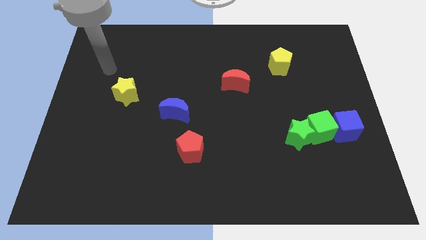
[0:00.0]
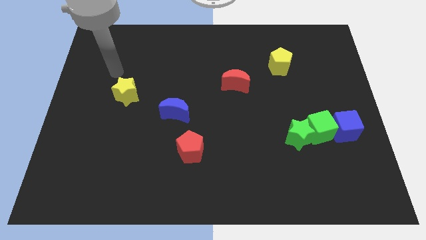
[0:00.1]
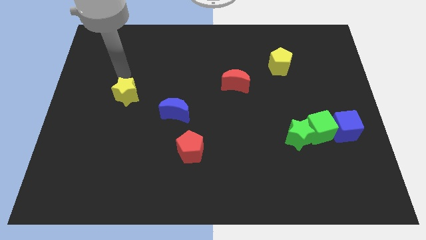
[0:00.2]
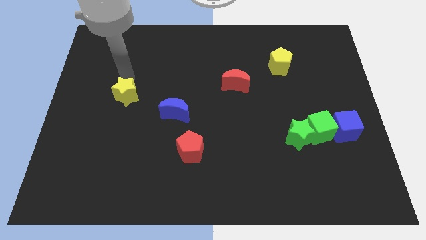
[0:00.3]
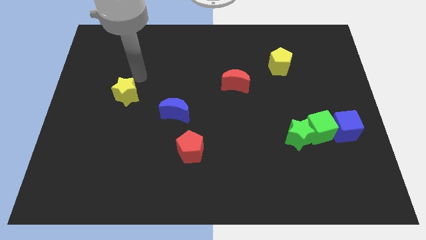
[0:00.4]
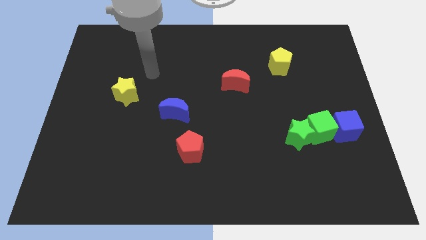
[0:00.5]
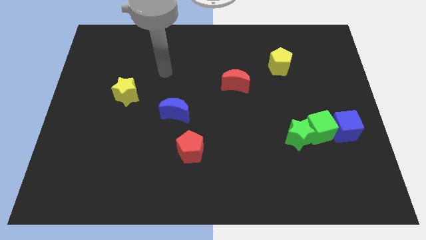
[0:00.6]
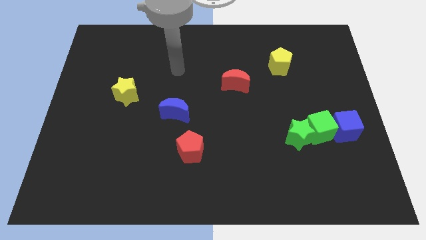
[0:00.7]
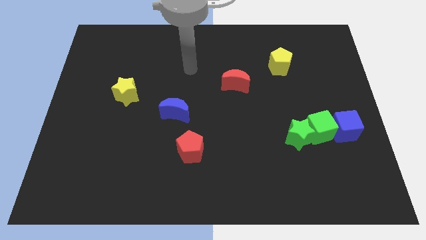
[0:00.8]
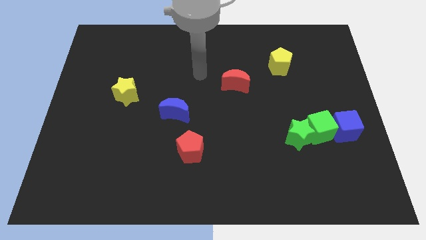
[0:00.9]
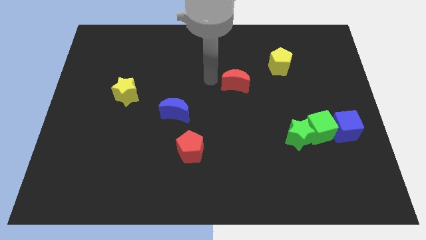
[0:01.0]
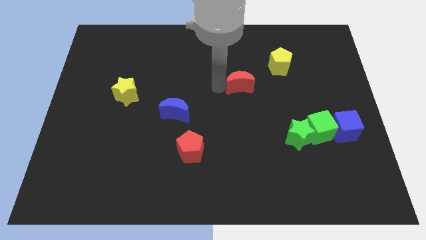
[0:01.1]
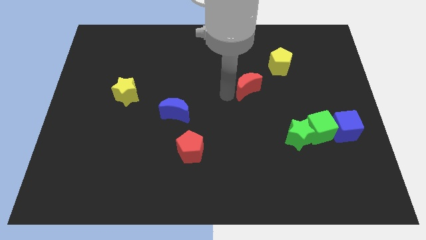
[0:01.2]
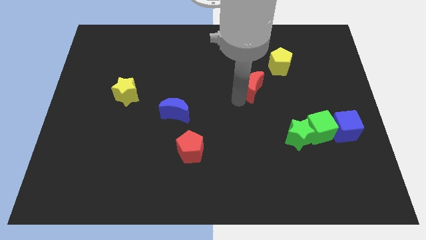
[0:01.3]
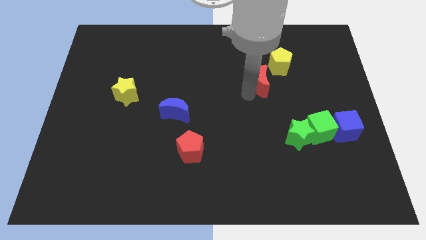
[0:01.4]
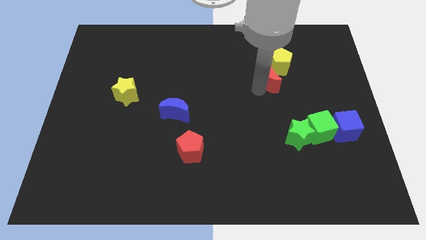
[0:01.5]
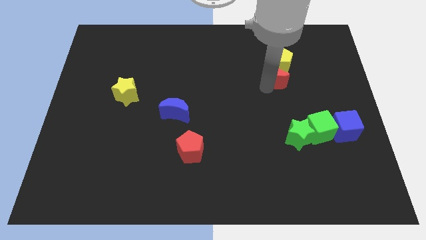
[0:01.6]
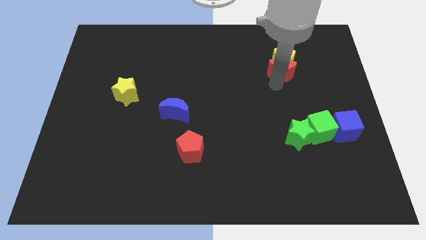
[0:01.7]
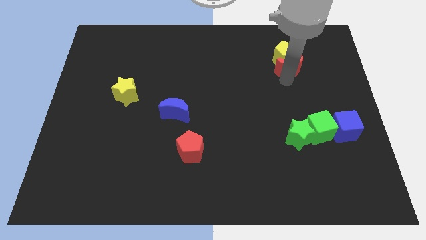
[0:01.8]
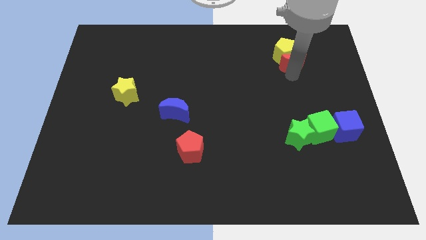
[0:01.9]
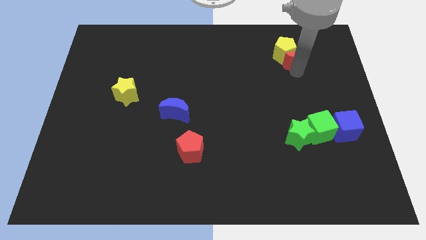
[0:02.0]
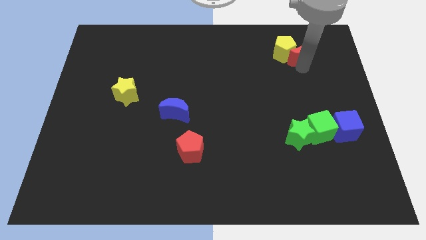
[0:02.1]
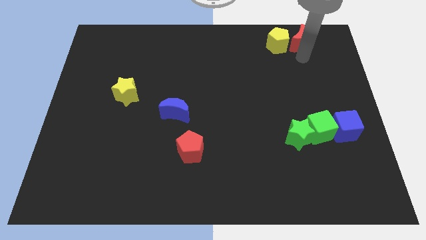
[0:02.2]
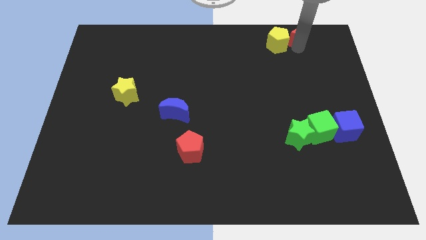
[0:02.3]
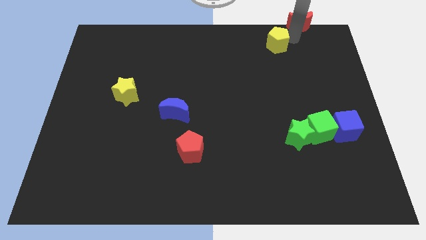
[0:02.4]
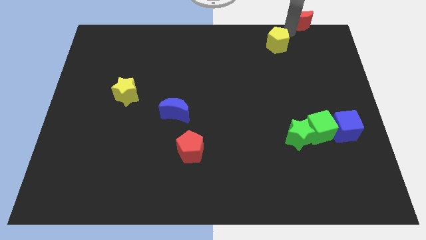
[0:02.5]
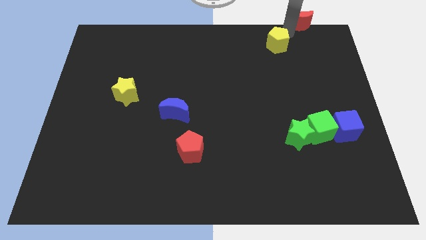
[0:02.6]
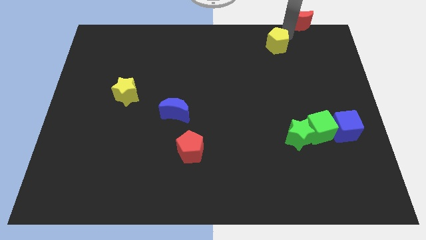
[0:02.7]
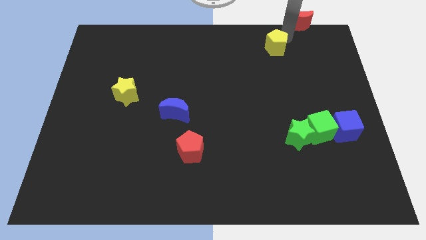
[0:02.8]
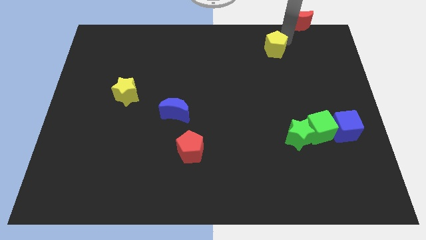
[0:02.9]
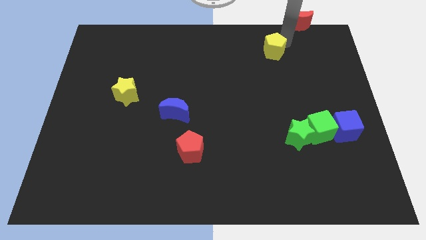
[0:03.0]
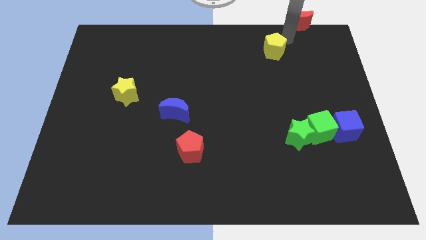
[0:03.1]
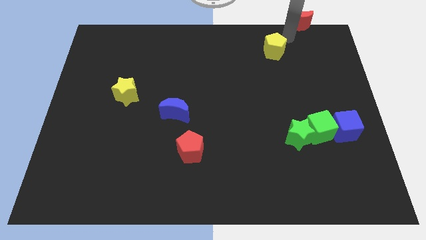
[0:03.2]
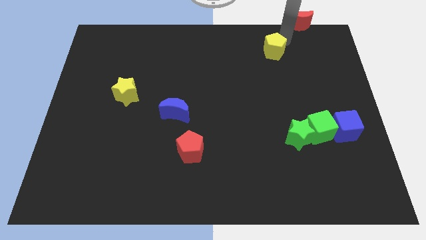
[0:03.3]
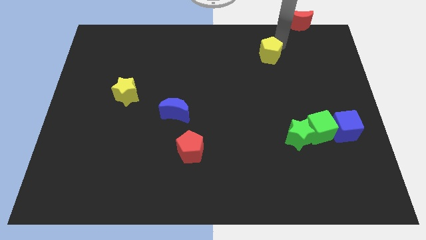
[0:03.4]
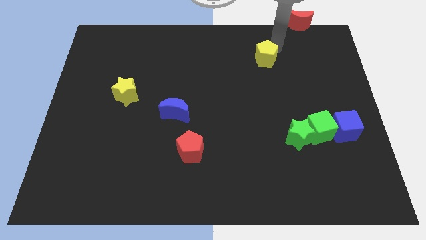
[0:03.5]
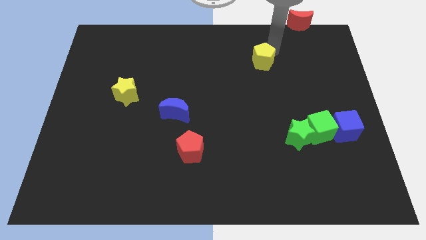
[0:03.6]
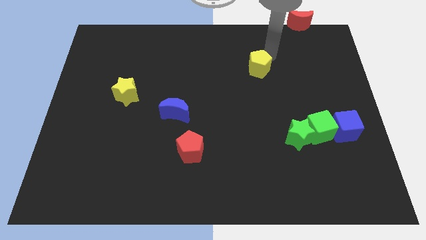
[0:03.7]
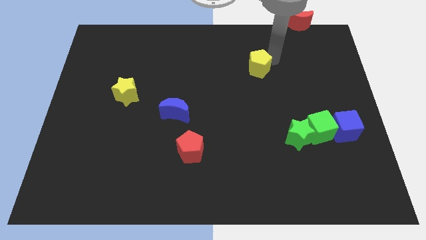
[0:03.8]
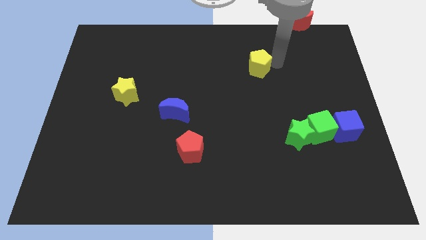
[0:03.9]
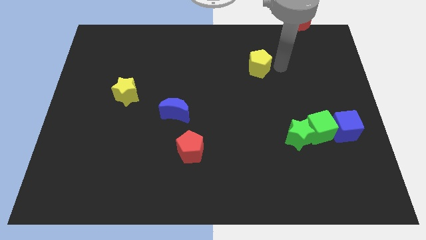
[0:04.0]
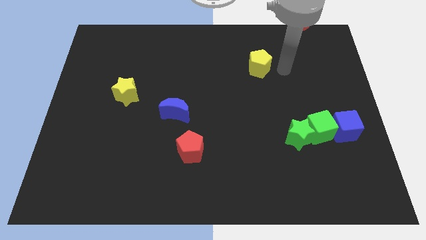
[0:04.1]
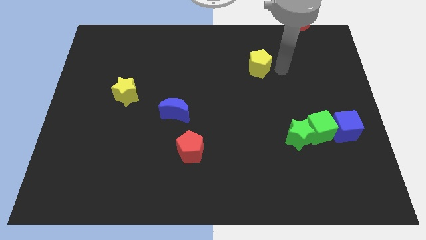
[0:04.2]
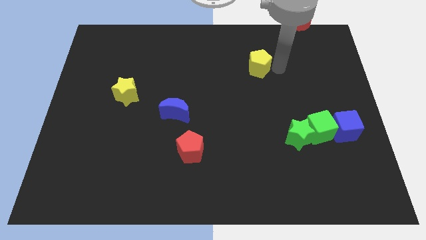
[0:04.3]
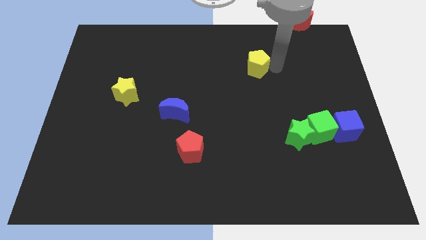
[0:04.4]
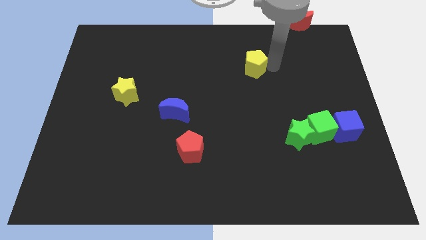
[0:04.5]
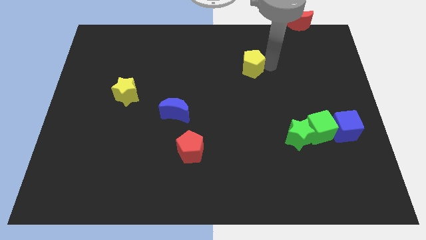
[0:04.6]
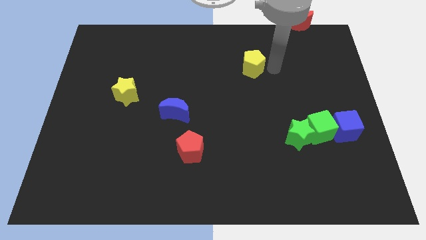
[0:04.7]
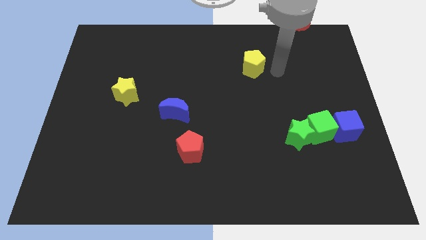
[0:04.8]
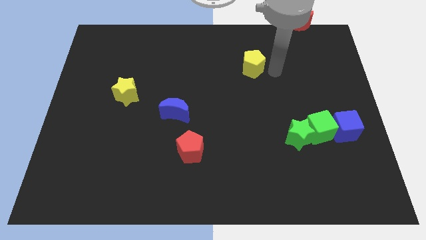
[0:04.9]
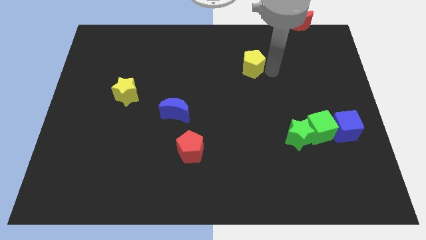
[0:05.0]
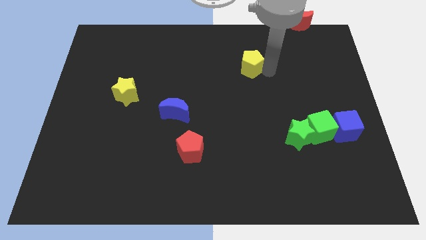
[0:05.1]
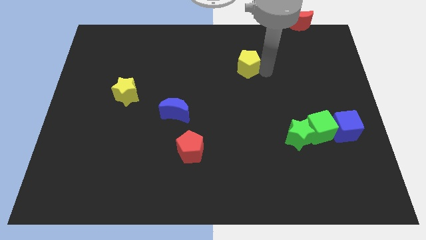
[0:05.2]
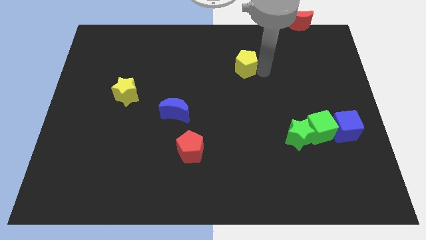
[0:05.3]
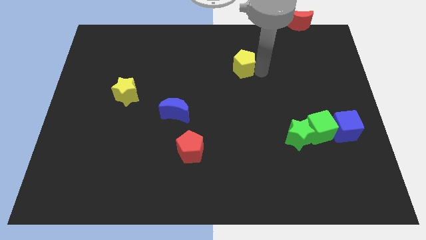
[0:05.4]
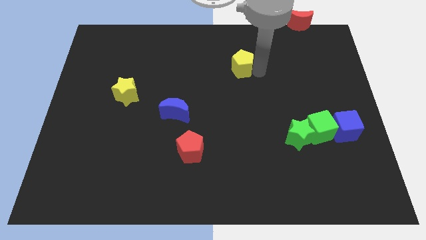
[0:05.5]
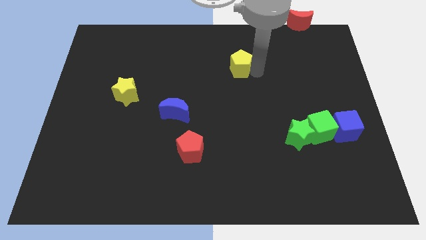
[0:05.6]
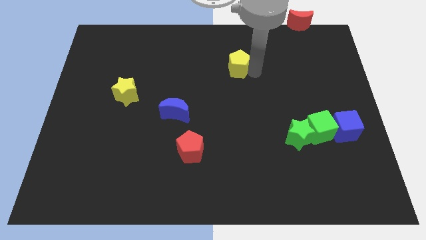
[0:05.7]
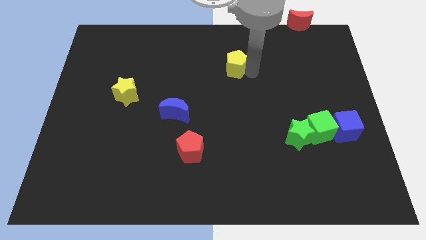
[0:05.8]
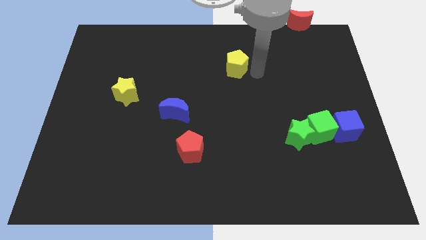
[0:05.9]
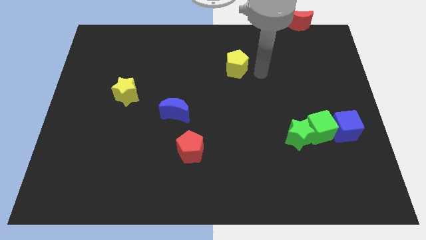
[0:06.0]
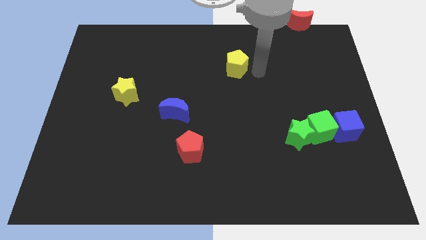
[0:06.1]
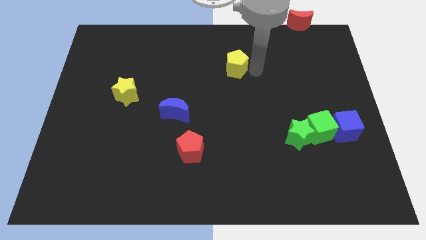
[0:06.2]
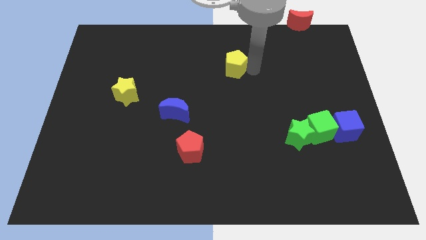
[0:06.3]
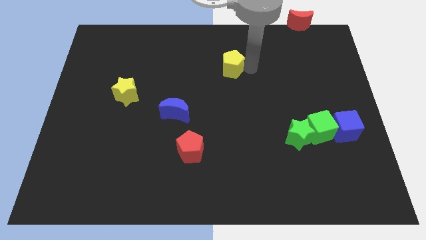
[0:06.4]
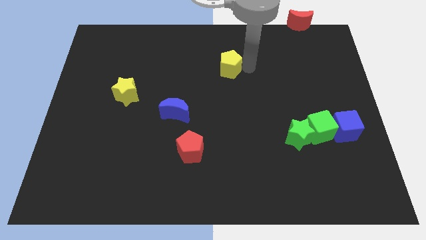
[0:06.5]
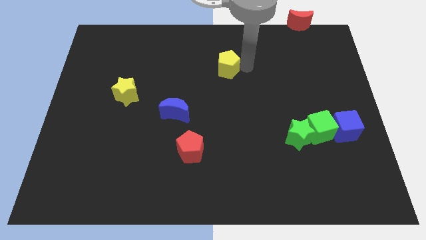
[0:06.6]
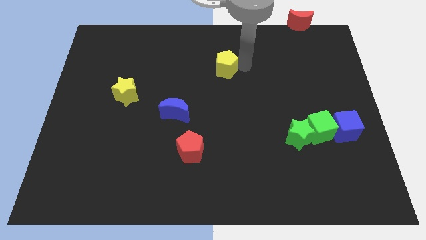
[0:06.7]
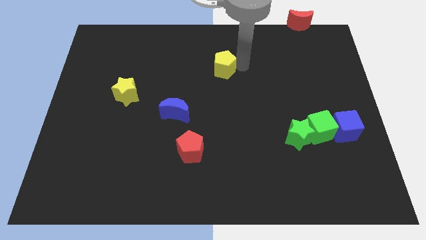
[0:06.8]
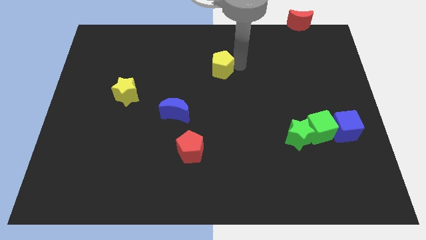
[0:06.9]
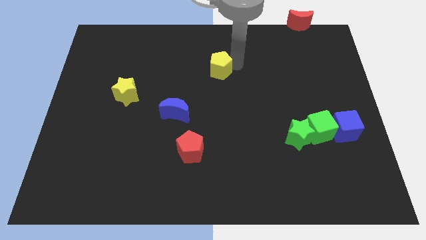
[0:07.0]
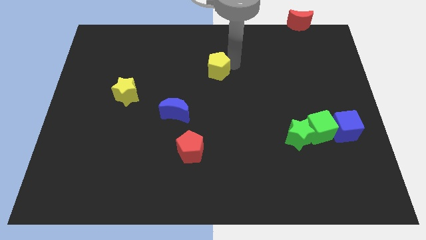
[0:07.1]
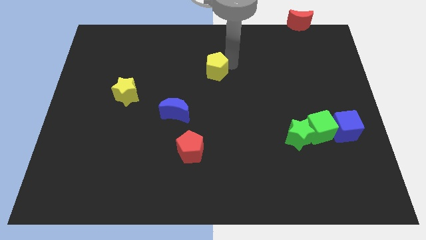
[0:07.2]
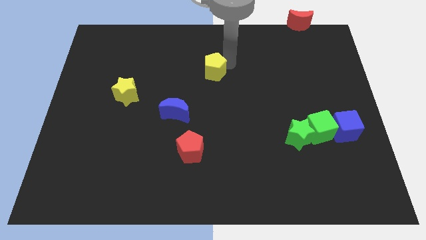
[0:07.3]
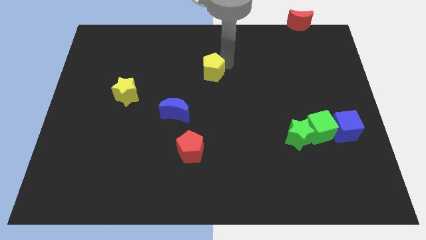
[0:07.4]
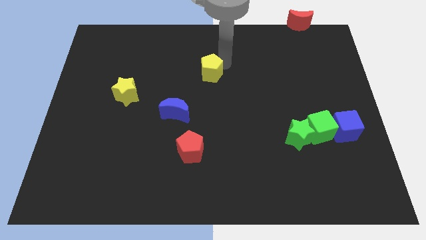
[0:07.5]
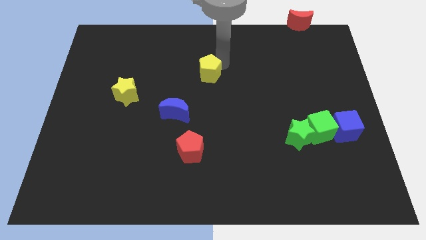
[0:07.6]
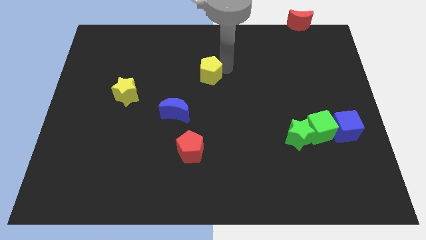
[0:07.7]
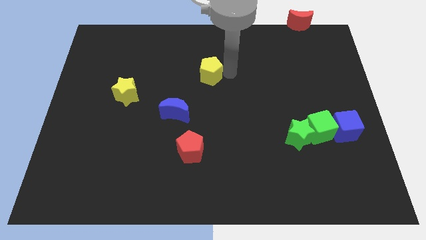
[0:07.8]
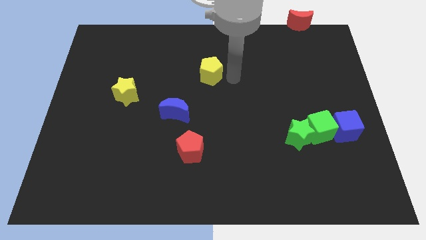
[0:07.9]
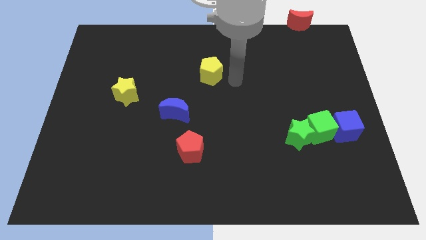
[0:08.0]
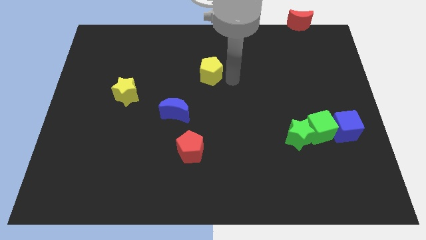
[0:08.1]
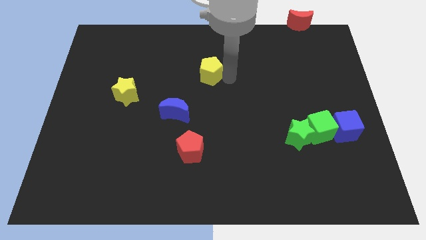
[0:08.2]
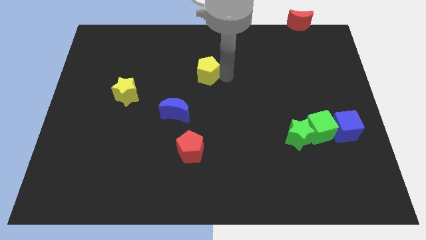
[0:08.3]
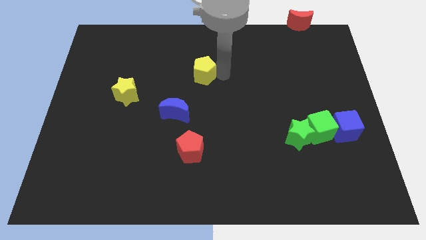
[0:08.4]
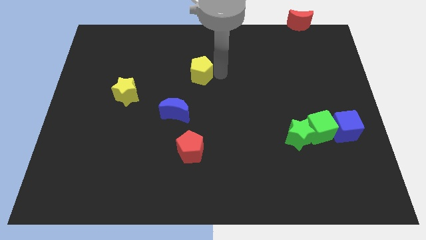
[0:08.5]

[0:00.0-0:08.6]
slide the yellow pentagon to the left
